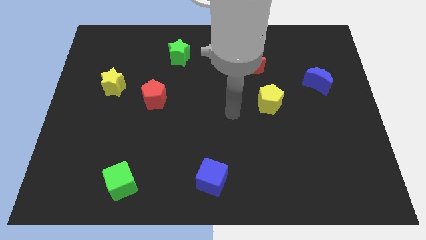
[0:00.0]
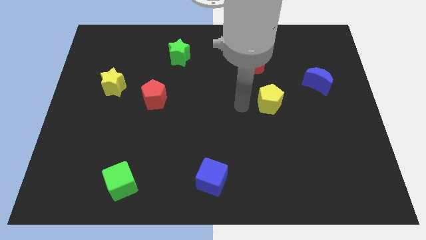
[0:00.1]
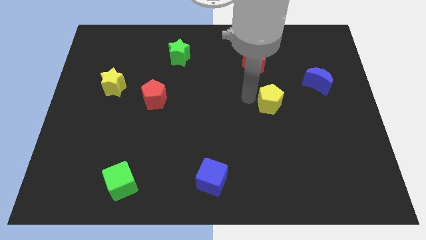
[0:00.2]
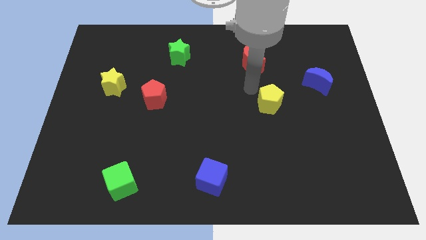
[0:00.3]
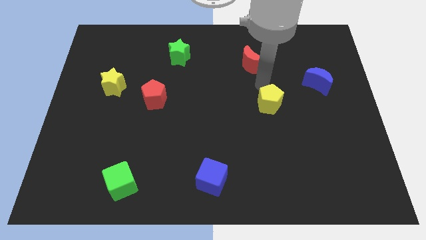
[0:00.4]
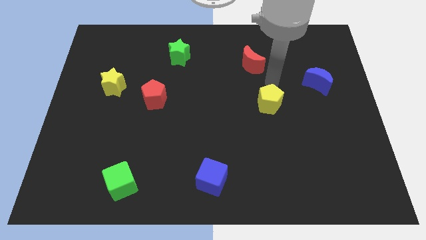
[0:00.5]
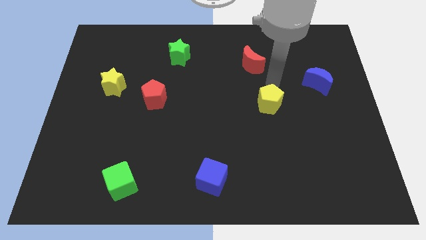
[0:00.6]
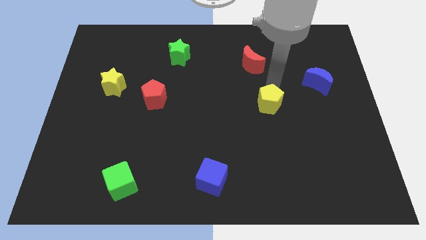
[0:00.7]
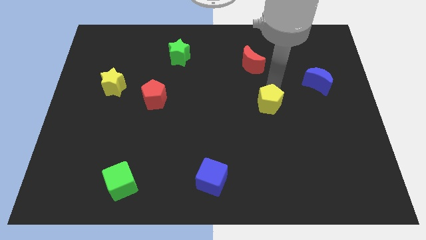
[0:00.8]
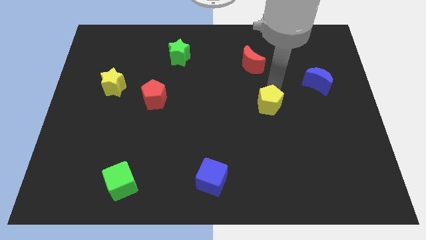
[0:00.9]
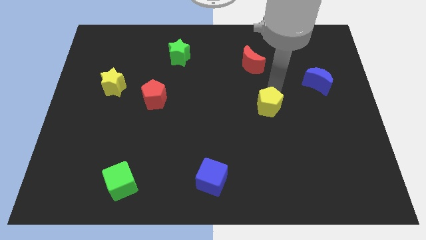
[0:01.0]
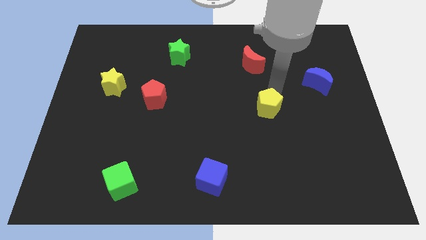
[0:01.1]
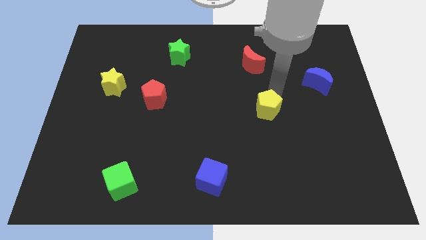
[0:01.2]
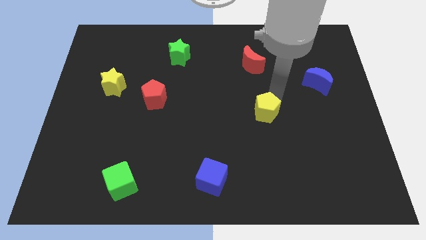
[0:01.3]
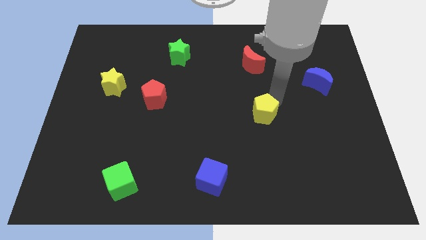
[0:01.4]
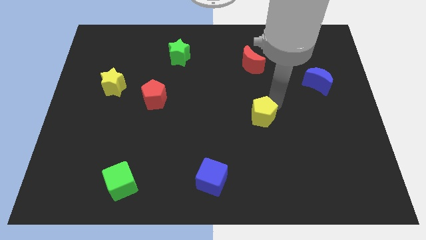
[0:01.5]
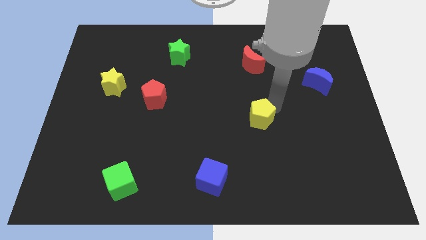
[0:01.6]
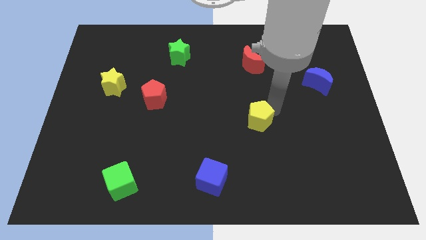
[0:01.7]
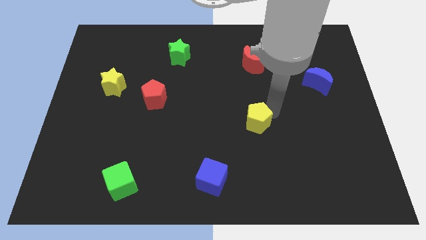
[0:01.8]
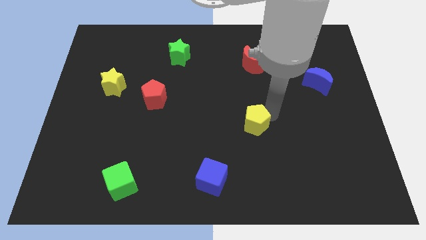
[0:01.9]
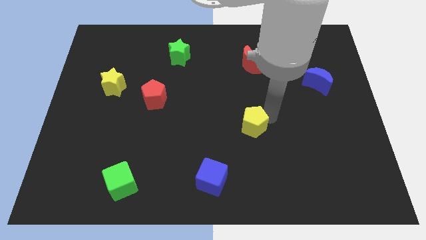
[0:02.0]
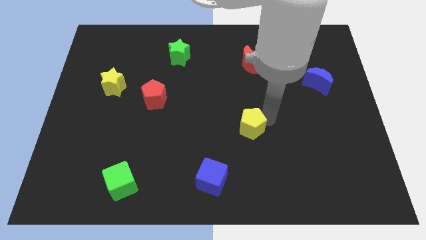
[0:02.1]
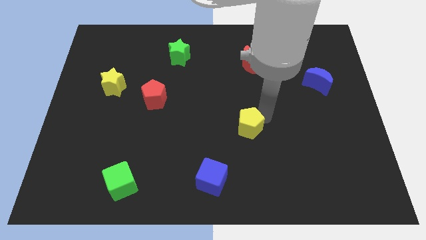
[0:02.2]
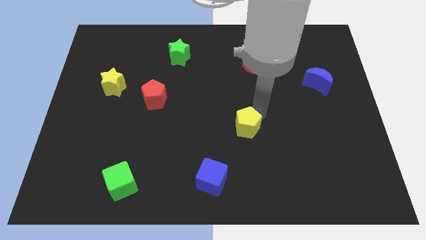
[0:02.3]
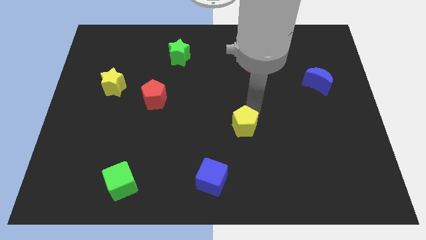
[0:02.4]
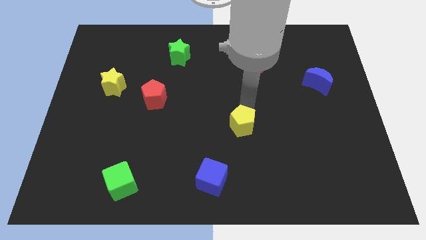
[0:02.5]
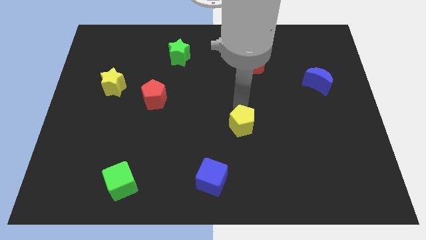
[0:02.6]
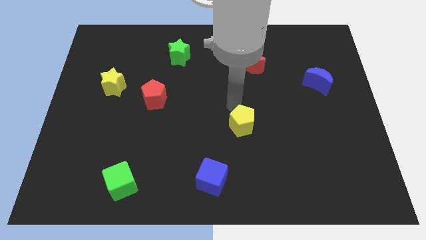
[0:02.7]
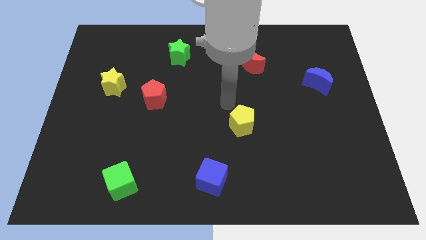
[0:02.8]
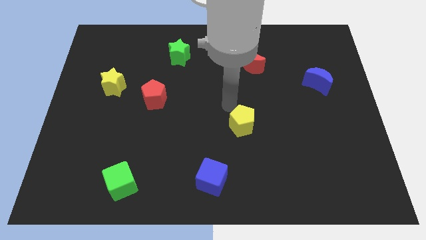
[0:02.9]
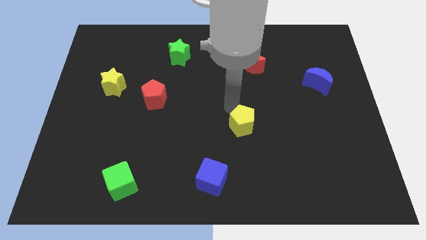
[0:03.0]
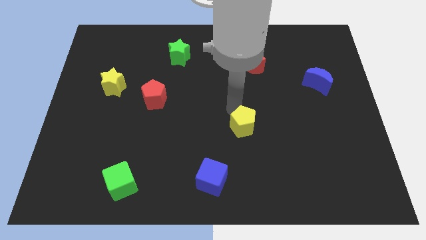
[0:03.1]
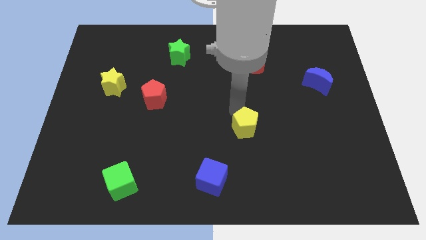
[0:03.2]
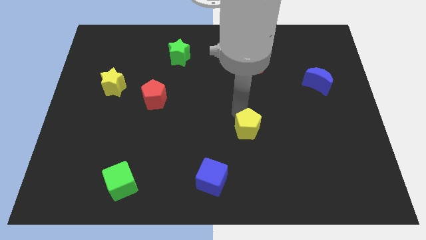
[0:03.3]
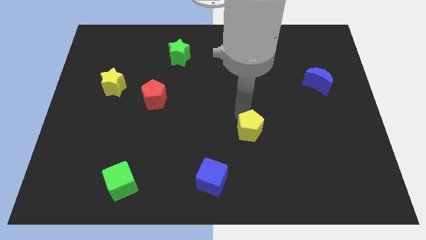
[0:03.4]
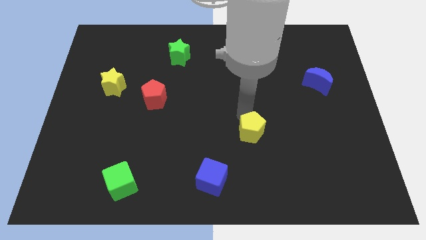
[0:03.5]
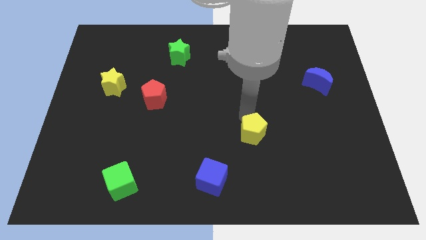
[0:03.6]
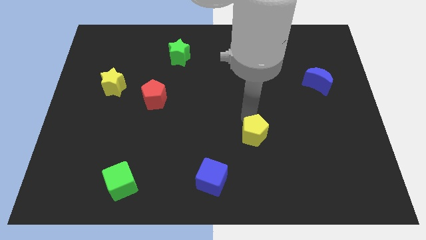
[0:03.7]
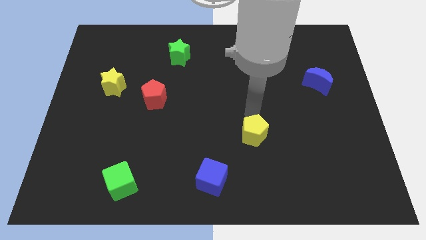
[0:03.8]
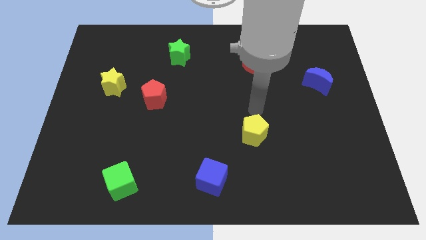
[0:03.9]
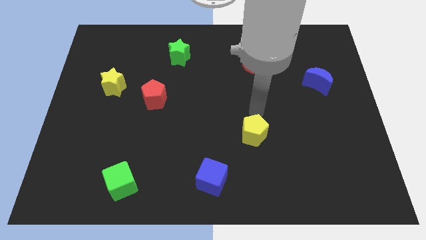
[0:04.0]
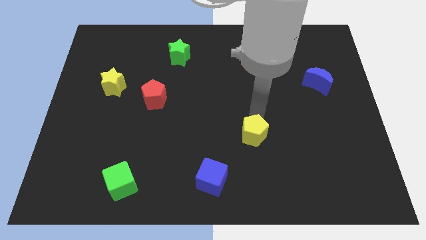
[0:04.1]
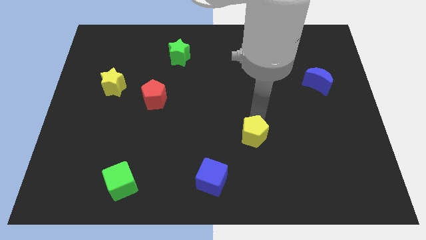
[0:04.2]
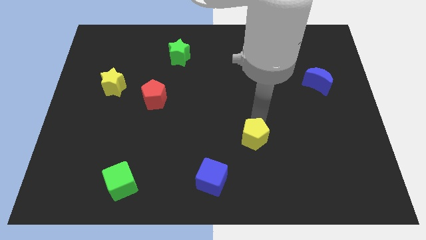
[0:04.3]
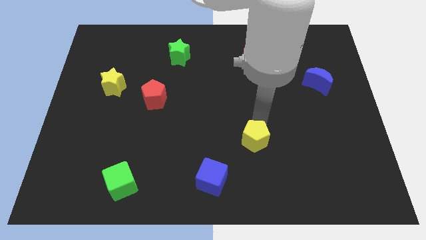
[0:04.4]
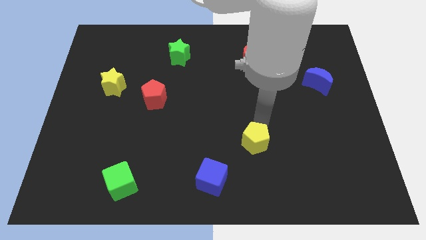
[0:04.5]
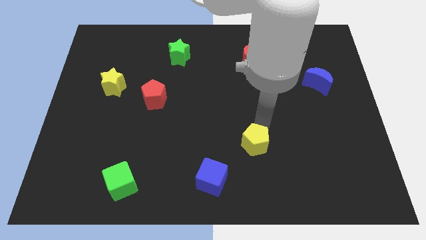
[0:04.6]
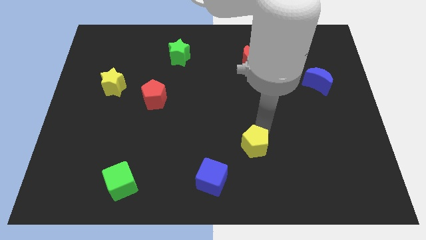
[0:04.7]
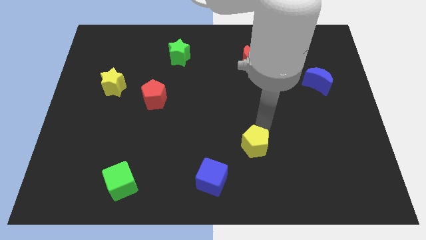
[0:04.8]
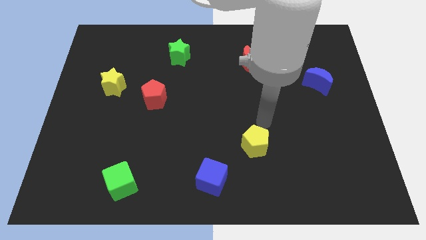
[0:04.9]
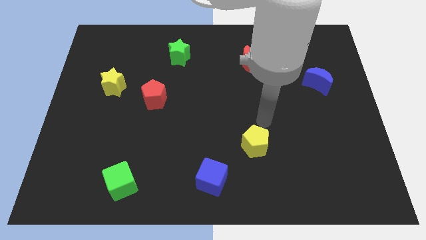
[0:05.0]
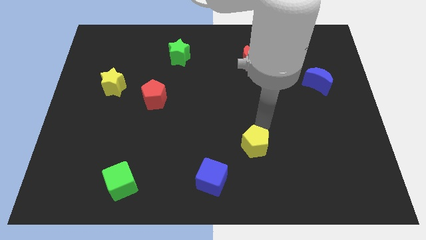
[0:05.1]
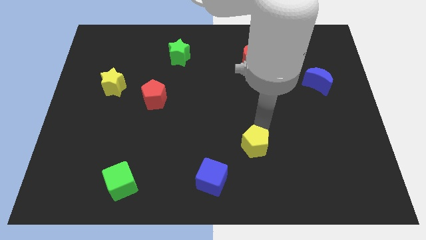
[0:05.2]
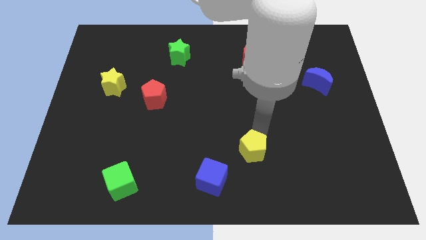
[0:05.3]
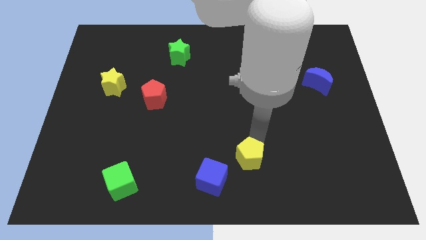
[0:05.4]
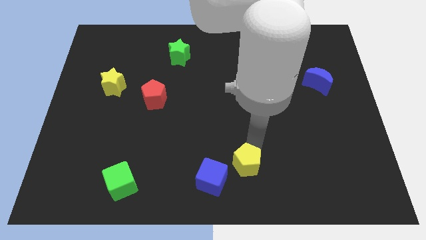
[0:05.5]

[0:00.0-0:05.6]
move the yellow pentagon to the bottom
